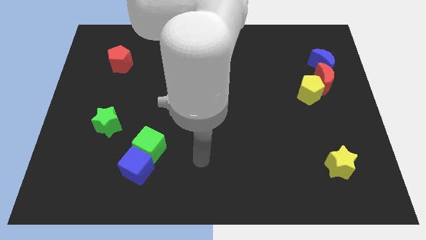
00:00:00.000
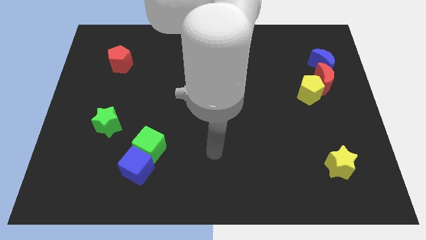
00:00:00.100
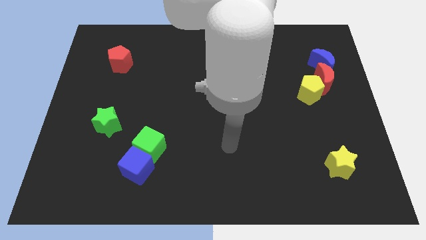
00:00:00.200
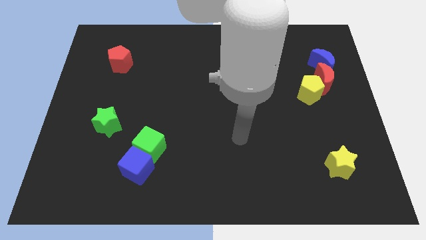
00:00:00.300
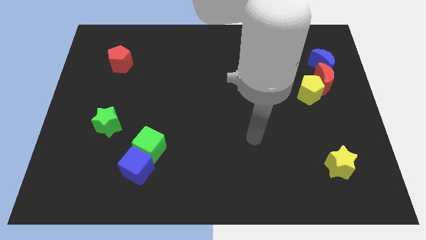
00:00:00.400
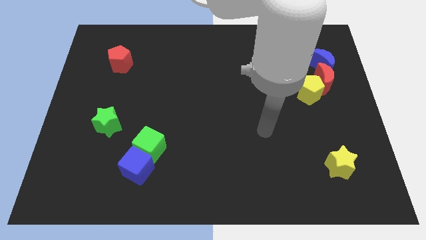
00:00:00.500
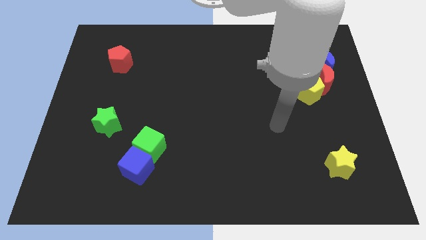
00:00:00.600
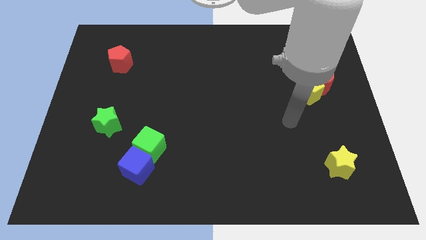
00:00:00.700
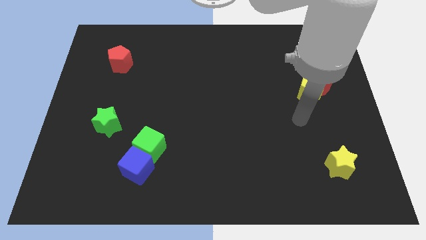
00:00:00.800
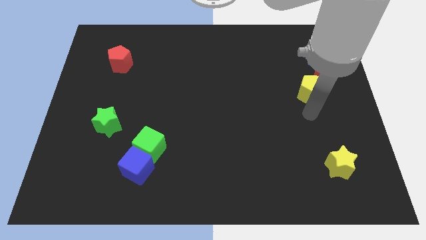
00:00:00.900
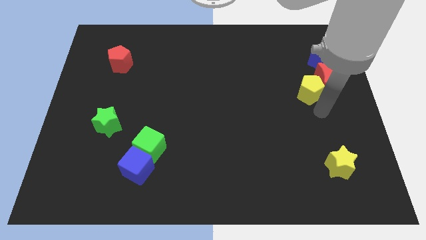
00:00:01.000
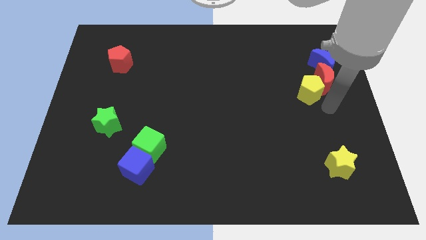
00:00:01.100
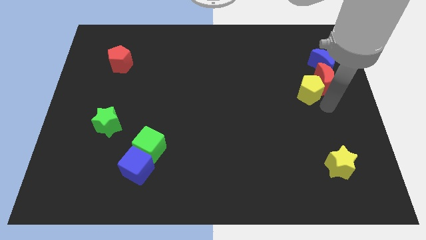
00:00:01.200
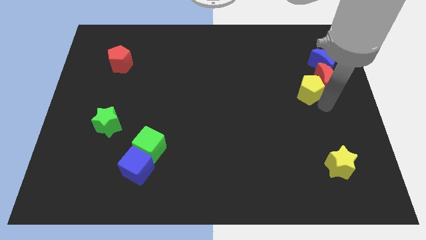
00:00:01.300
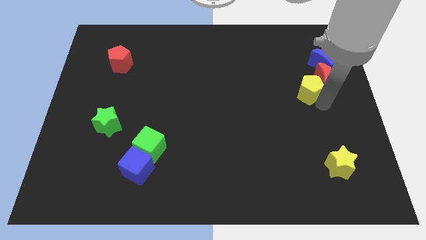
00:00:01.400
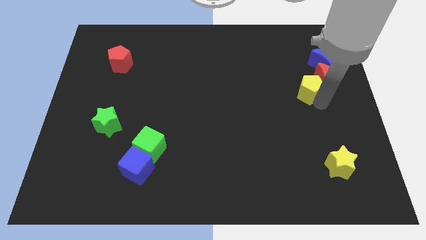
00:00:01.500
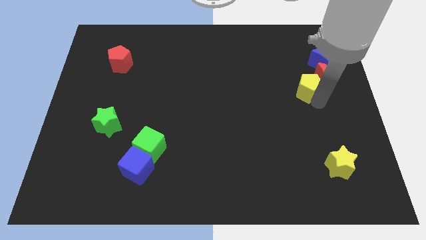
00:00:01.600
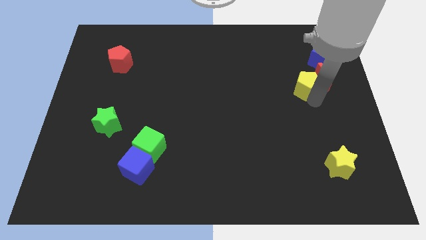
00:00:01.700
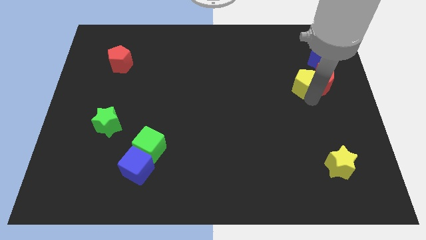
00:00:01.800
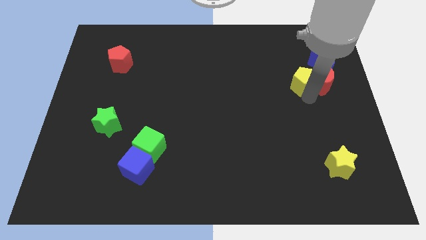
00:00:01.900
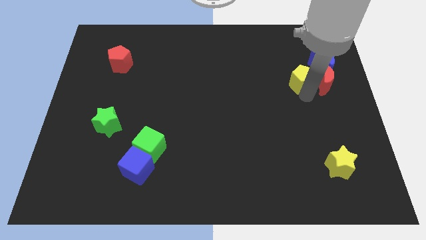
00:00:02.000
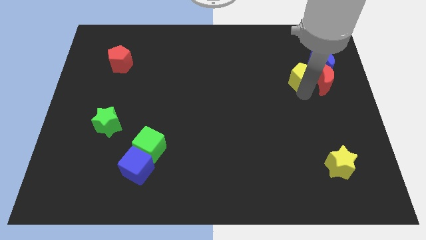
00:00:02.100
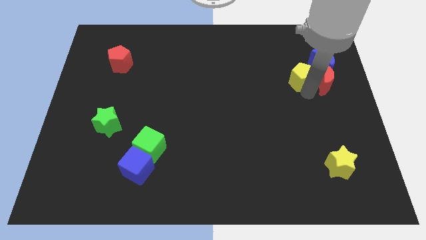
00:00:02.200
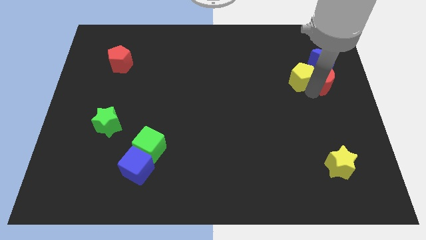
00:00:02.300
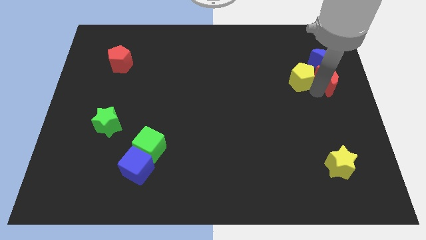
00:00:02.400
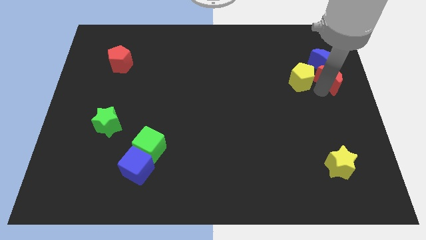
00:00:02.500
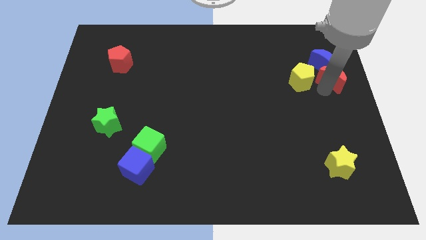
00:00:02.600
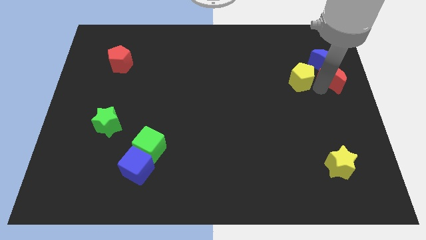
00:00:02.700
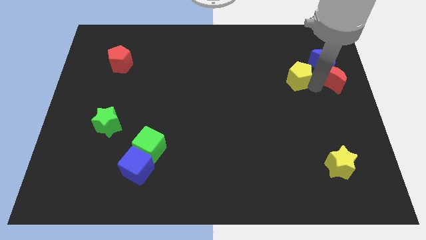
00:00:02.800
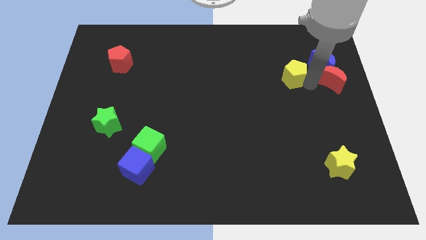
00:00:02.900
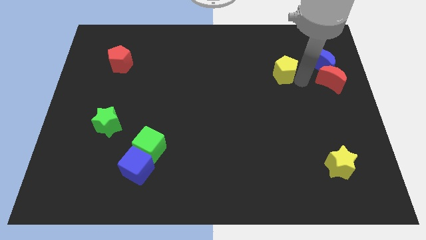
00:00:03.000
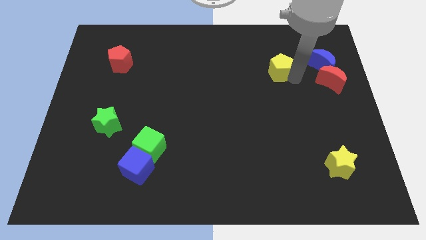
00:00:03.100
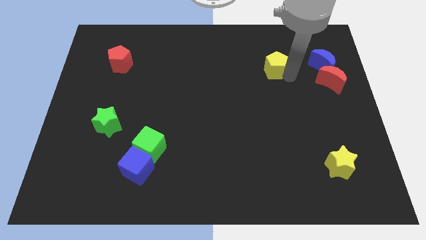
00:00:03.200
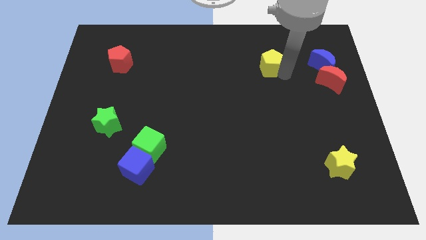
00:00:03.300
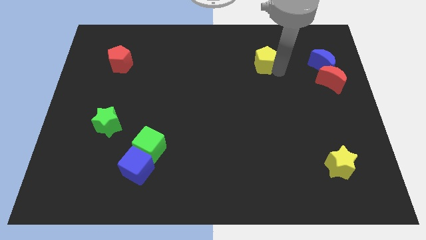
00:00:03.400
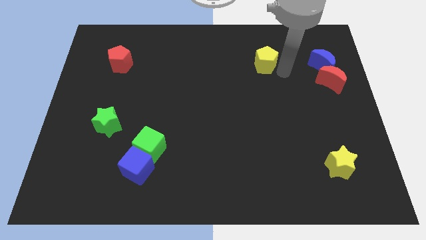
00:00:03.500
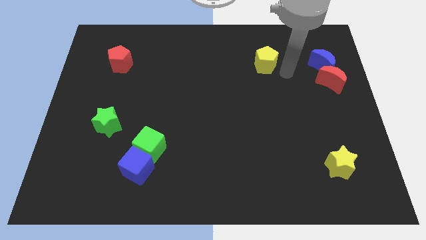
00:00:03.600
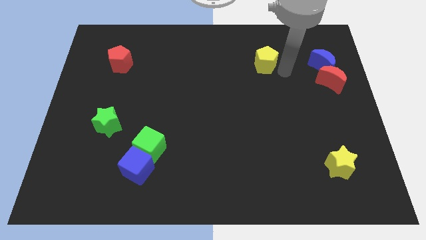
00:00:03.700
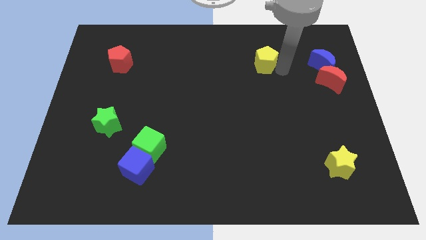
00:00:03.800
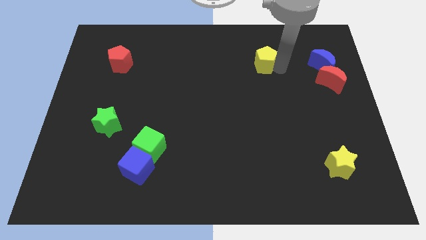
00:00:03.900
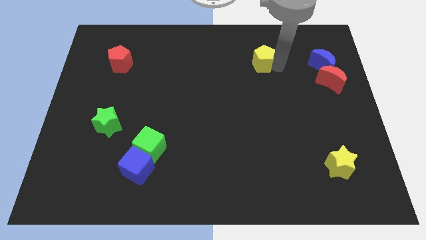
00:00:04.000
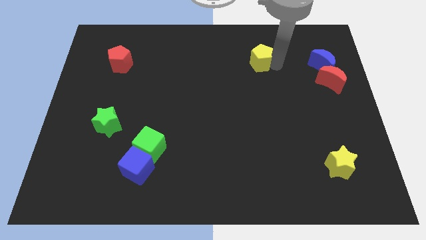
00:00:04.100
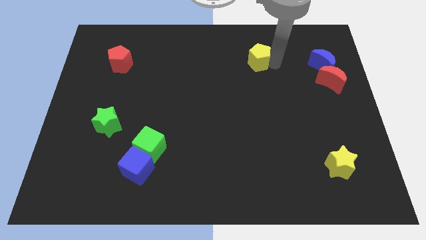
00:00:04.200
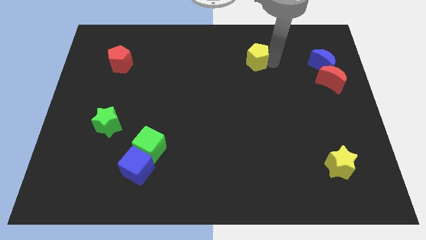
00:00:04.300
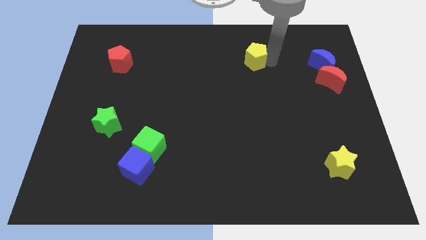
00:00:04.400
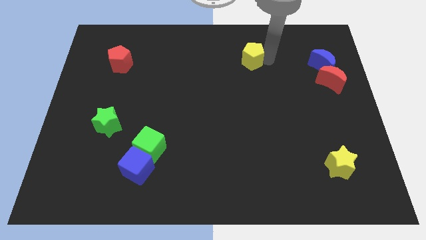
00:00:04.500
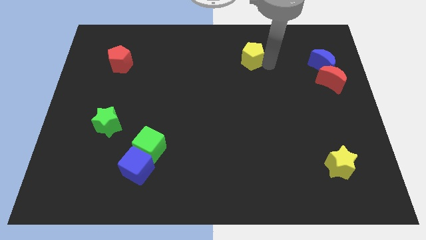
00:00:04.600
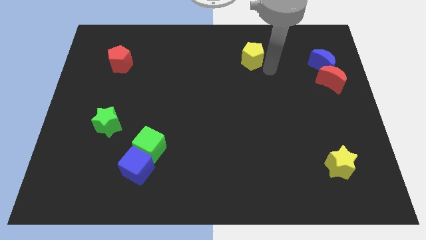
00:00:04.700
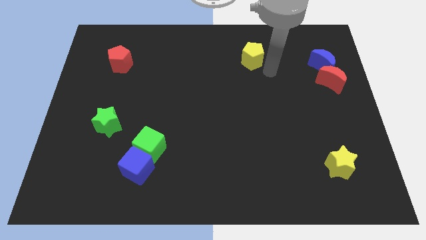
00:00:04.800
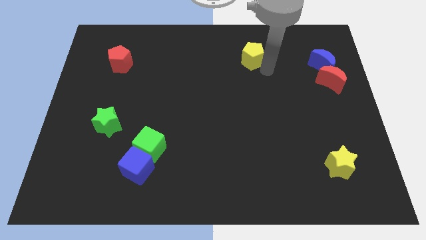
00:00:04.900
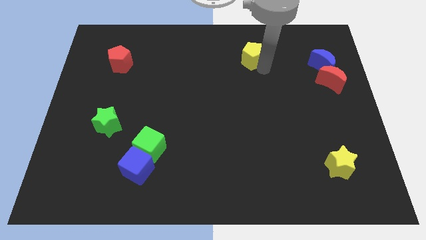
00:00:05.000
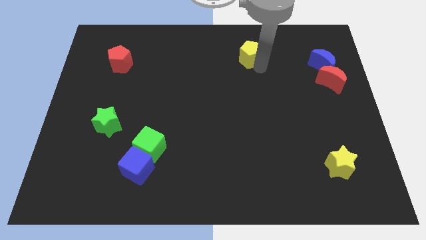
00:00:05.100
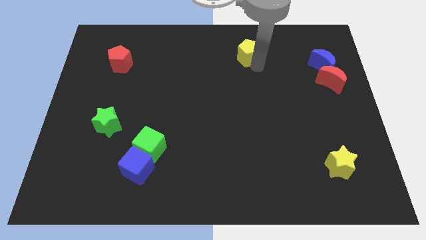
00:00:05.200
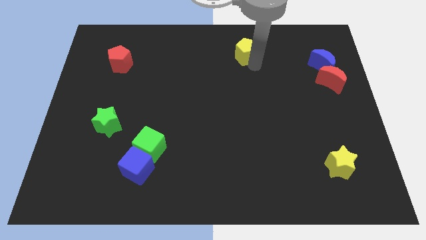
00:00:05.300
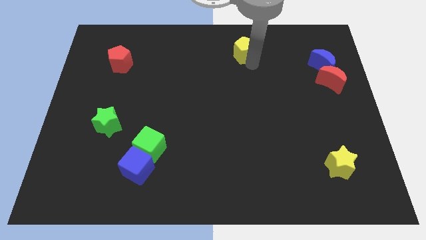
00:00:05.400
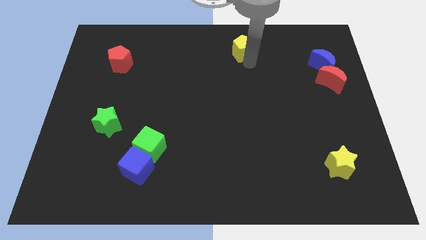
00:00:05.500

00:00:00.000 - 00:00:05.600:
slide the yellow pentagon to the top side

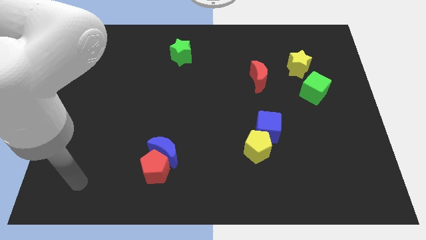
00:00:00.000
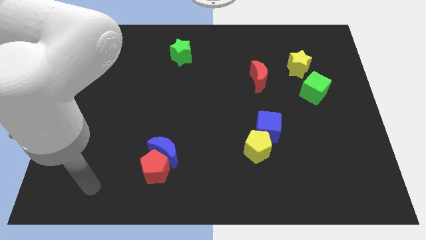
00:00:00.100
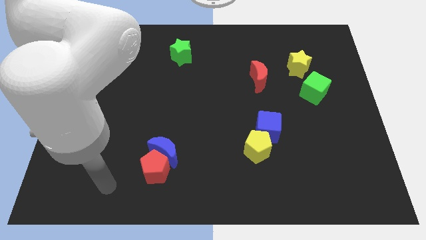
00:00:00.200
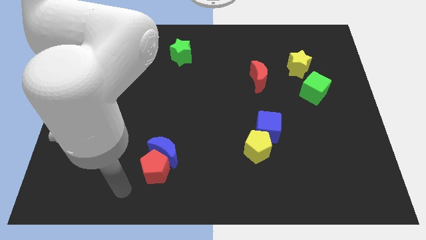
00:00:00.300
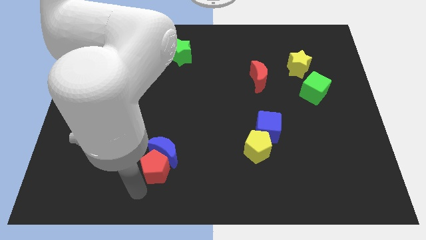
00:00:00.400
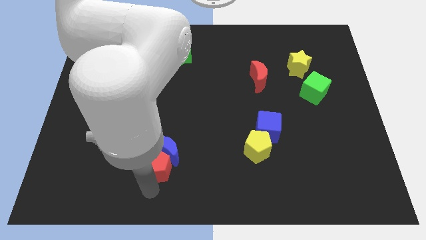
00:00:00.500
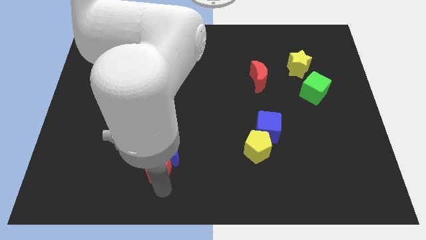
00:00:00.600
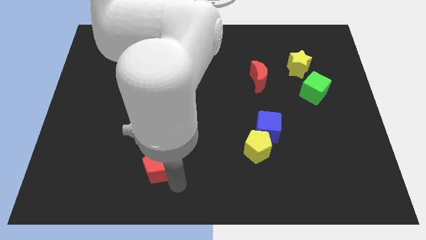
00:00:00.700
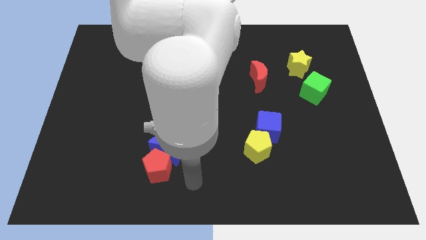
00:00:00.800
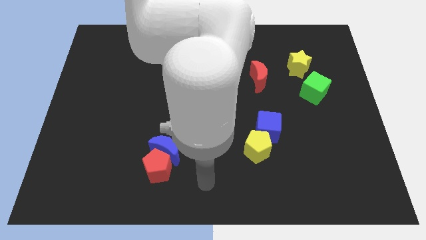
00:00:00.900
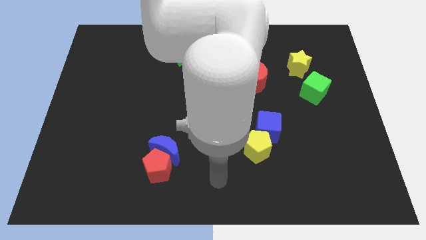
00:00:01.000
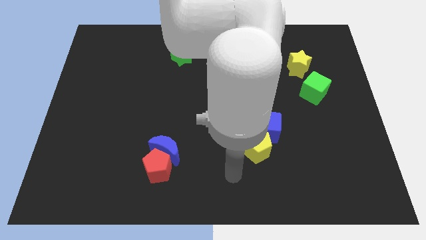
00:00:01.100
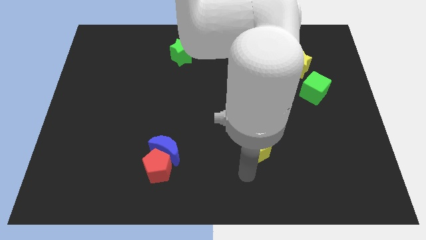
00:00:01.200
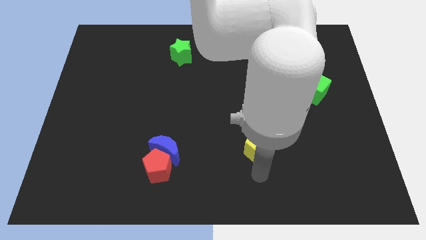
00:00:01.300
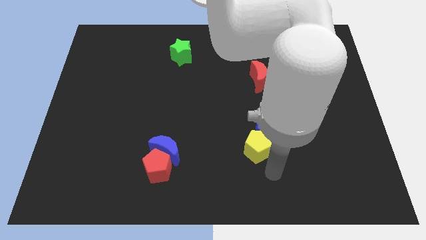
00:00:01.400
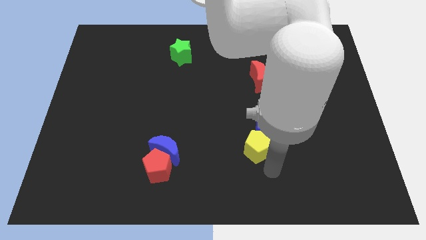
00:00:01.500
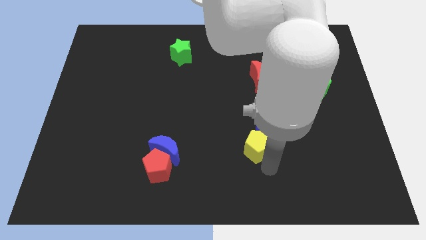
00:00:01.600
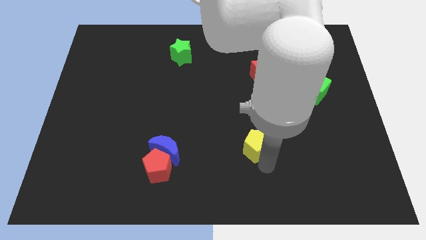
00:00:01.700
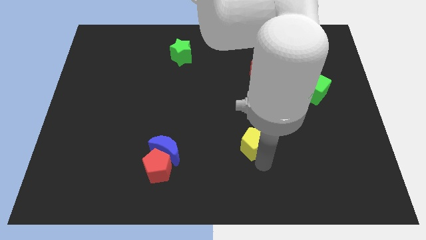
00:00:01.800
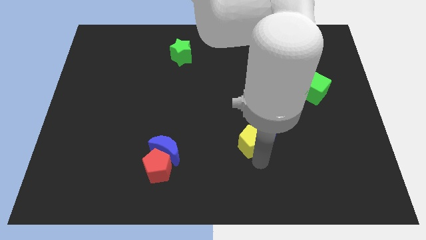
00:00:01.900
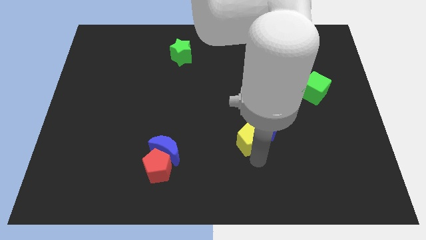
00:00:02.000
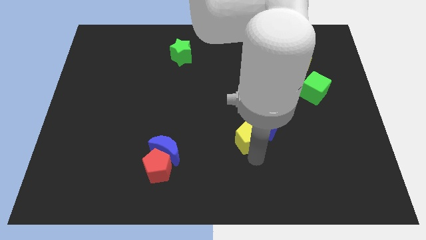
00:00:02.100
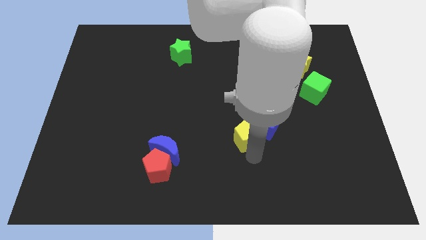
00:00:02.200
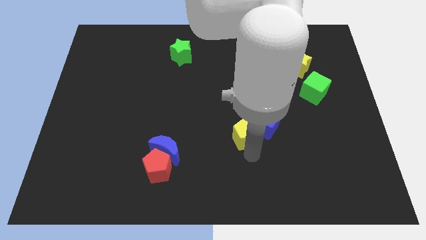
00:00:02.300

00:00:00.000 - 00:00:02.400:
push the yellow pentagon to the center
